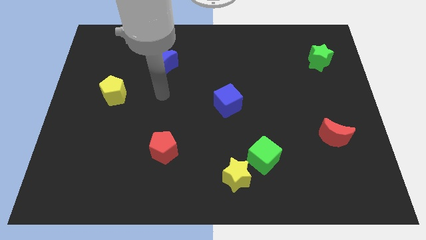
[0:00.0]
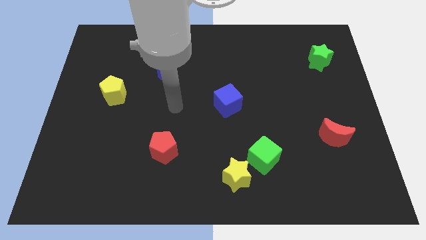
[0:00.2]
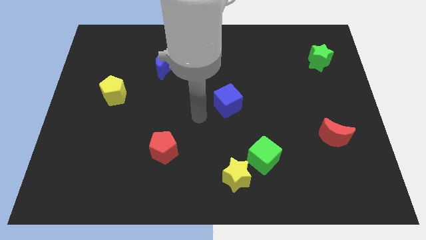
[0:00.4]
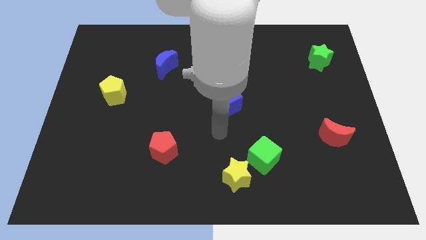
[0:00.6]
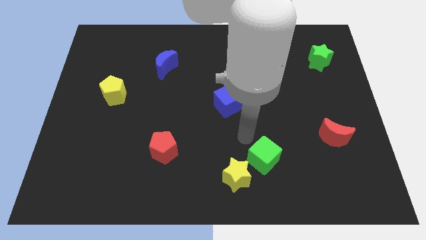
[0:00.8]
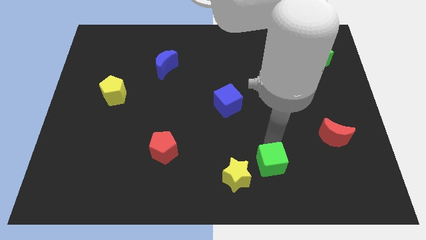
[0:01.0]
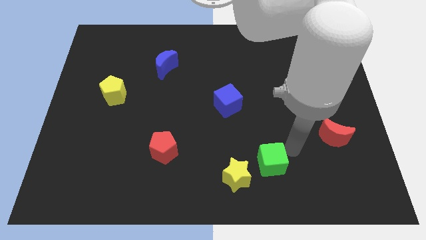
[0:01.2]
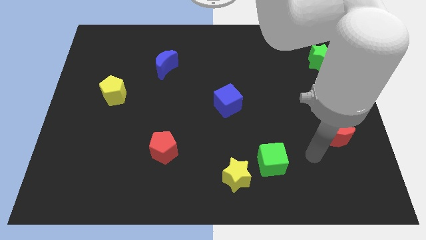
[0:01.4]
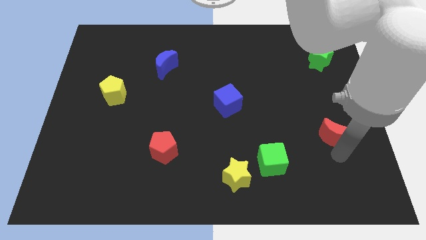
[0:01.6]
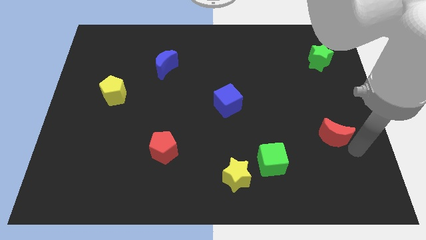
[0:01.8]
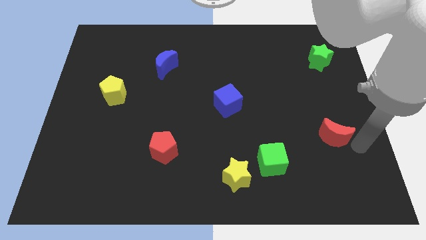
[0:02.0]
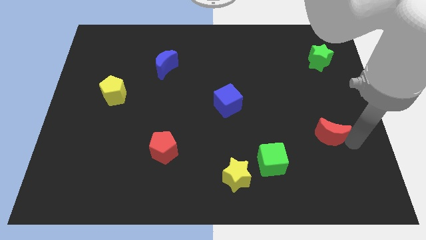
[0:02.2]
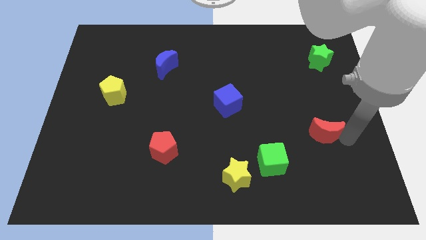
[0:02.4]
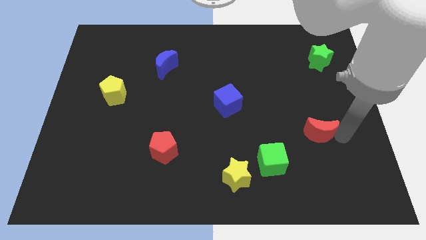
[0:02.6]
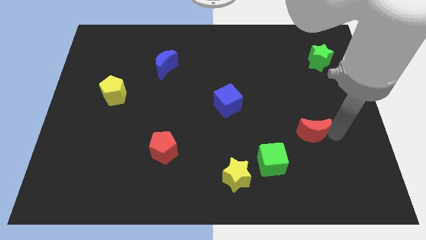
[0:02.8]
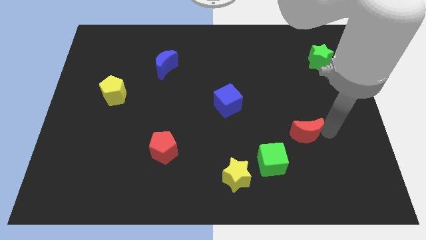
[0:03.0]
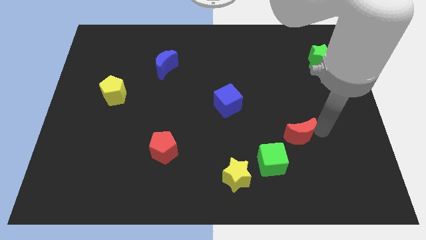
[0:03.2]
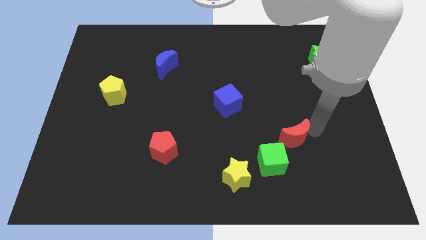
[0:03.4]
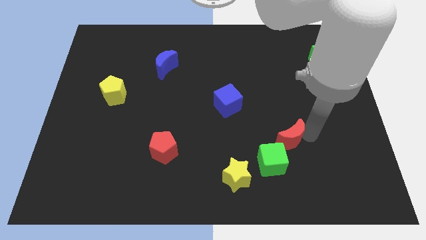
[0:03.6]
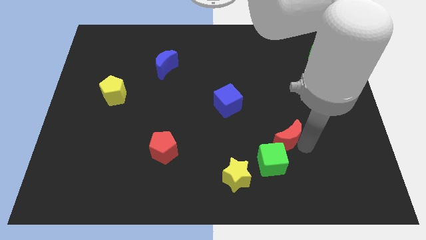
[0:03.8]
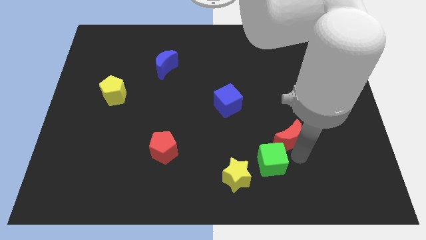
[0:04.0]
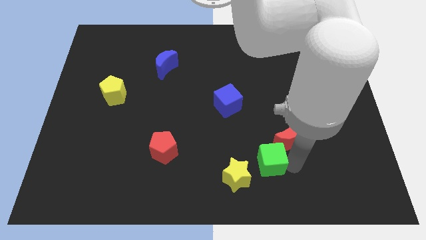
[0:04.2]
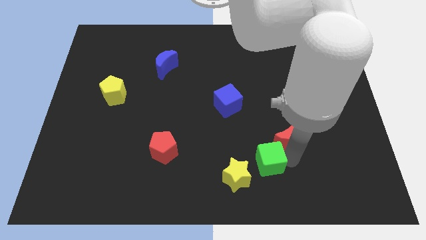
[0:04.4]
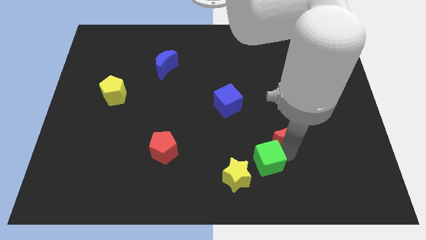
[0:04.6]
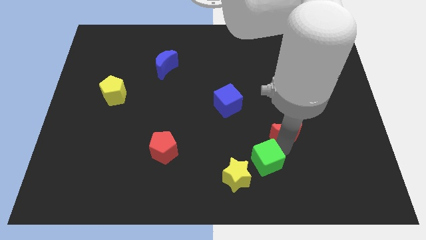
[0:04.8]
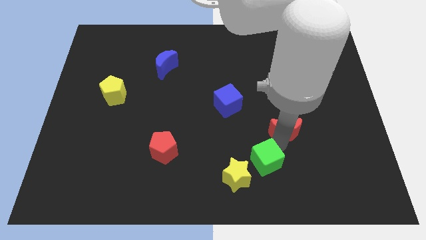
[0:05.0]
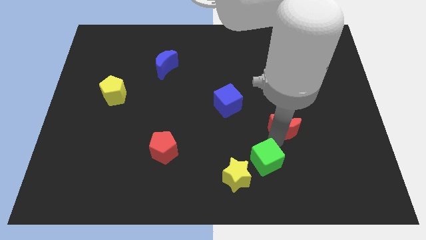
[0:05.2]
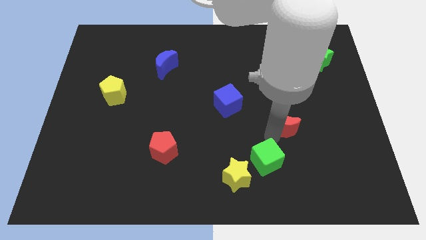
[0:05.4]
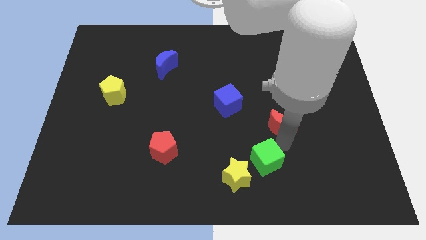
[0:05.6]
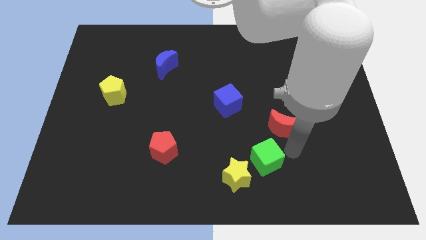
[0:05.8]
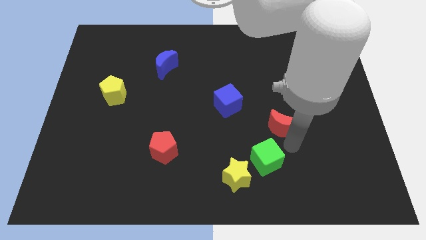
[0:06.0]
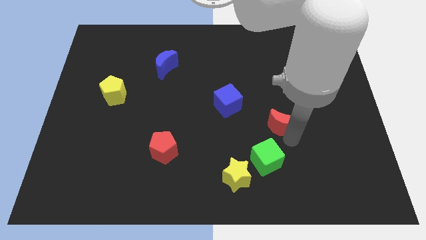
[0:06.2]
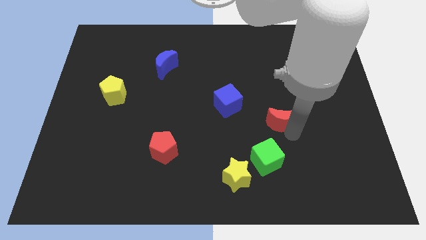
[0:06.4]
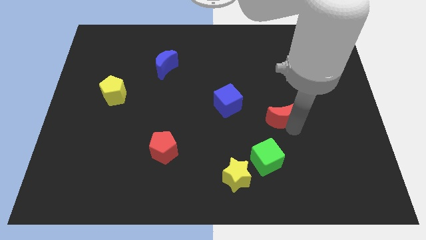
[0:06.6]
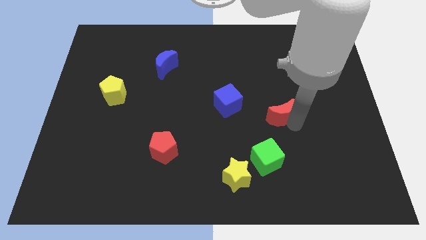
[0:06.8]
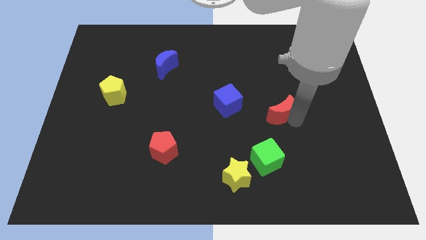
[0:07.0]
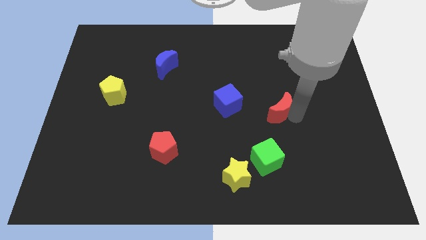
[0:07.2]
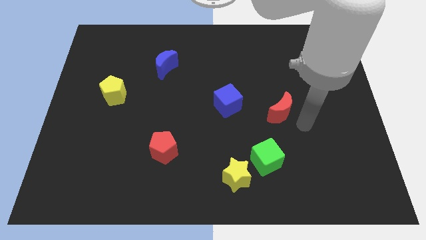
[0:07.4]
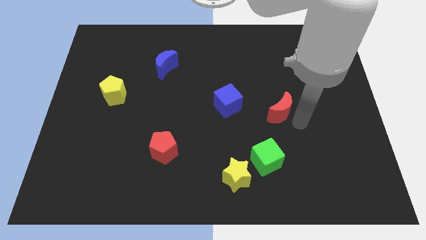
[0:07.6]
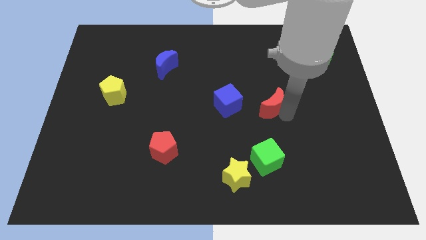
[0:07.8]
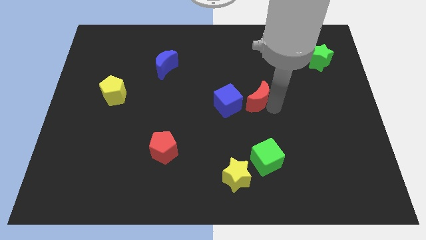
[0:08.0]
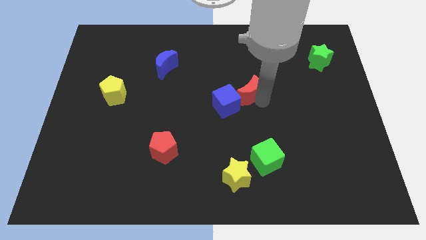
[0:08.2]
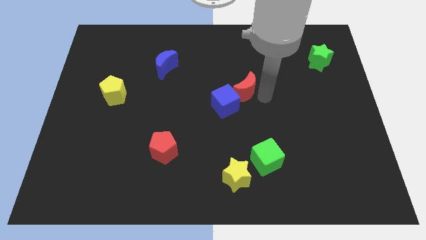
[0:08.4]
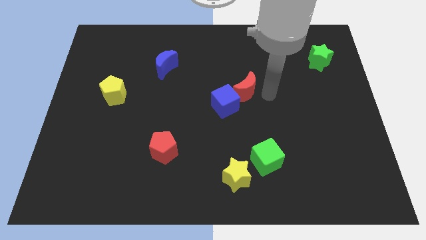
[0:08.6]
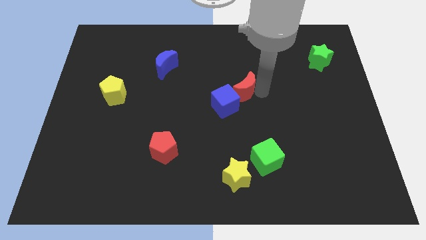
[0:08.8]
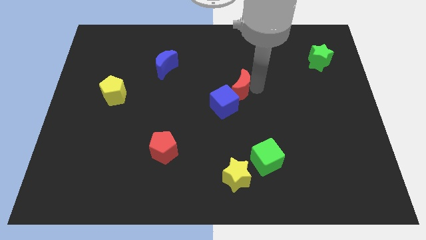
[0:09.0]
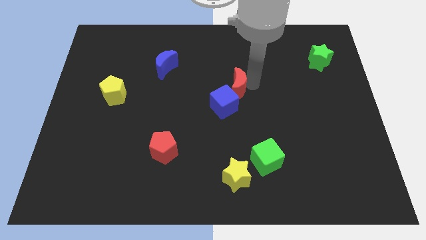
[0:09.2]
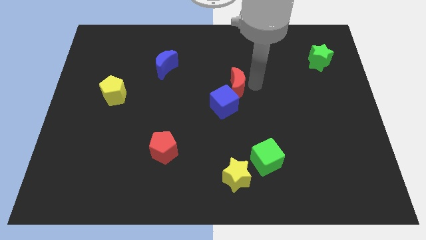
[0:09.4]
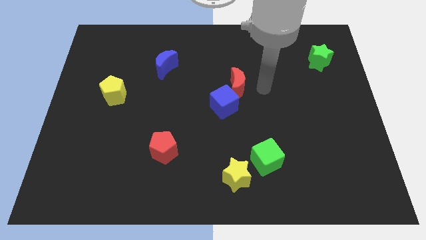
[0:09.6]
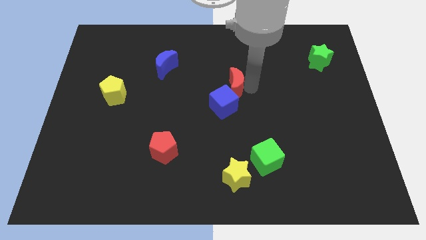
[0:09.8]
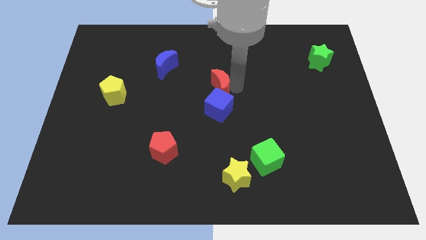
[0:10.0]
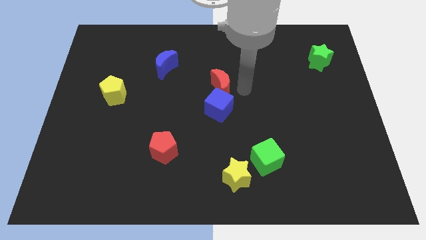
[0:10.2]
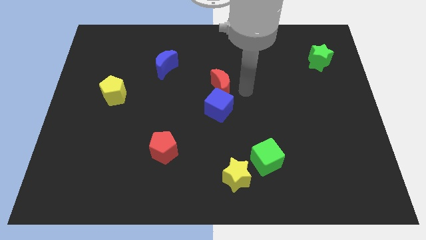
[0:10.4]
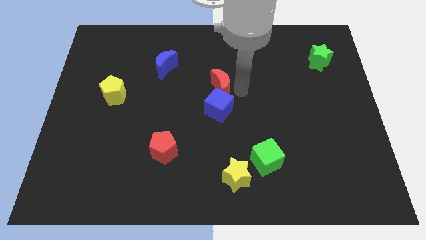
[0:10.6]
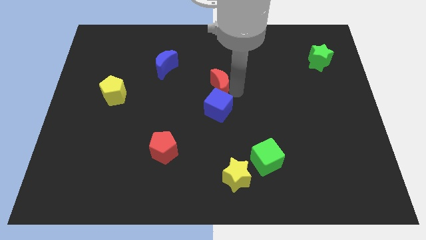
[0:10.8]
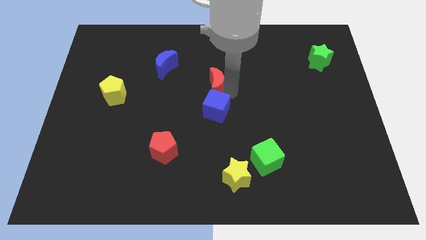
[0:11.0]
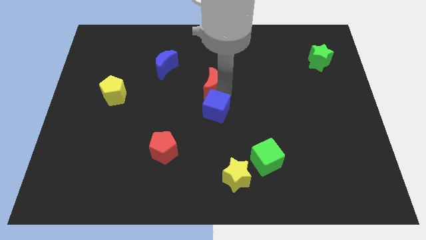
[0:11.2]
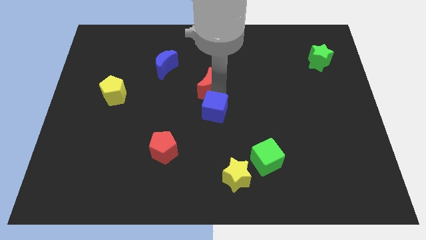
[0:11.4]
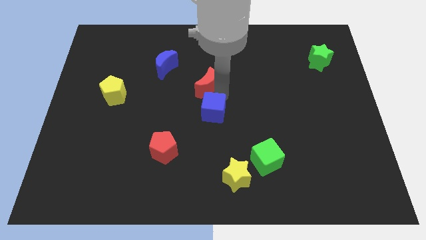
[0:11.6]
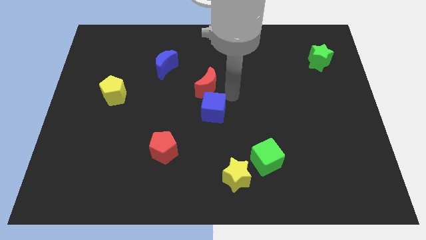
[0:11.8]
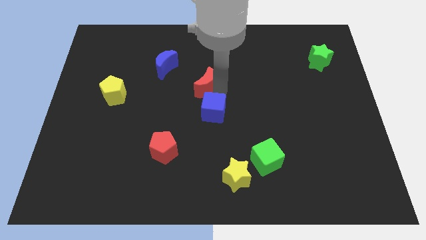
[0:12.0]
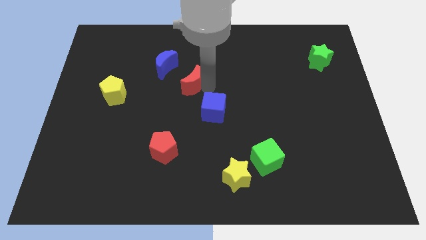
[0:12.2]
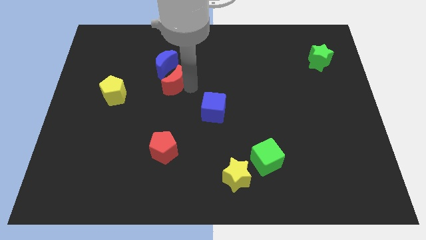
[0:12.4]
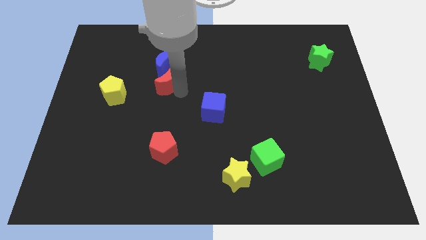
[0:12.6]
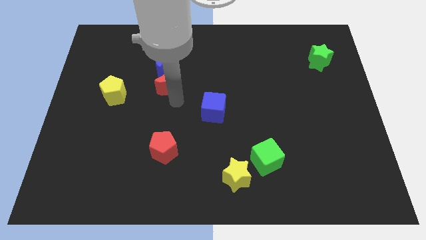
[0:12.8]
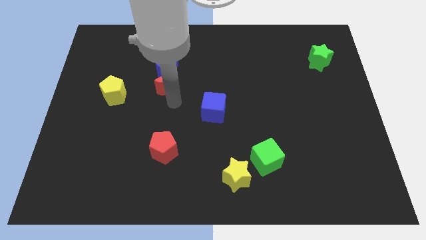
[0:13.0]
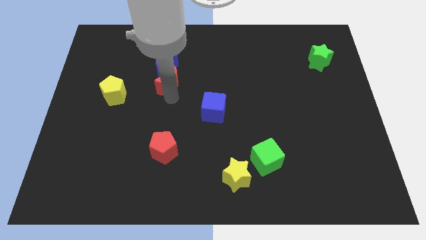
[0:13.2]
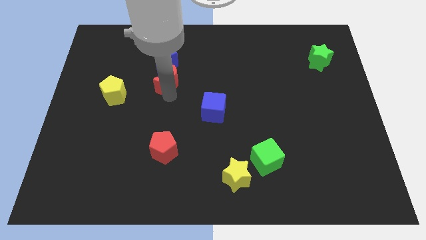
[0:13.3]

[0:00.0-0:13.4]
move the red moon close to the blue moon

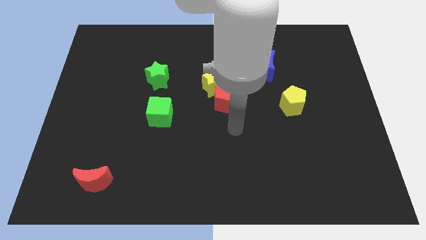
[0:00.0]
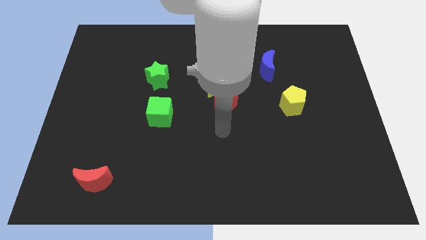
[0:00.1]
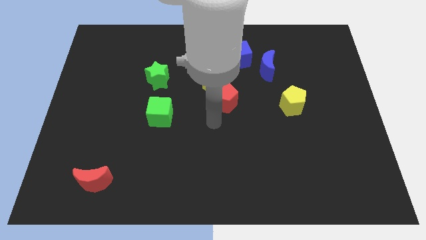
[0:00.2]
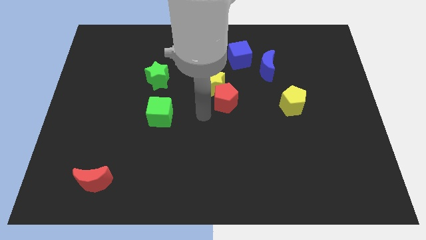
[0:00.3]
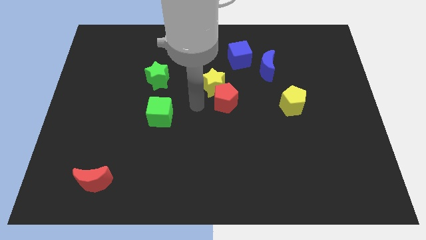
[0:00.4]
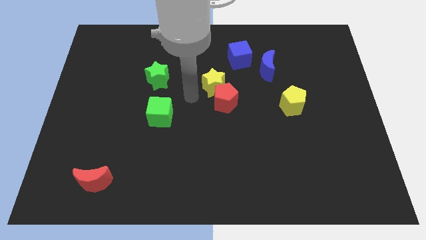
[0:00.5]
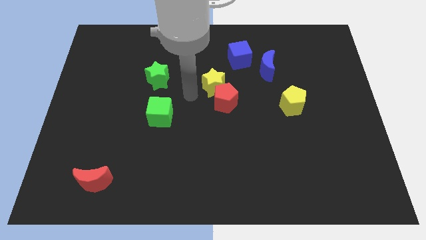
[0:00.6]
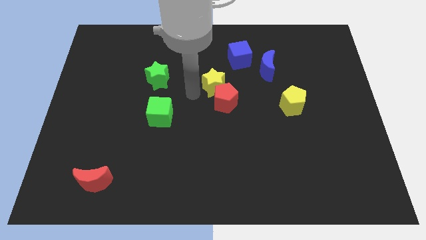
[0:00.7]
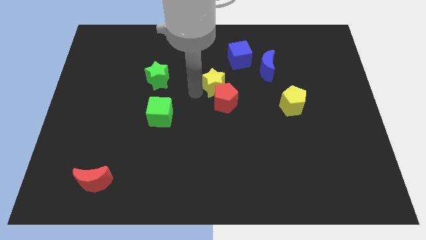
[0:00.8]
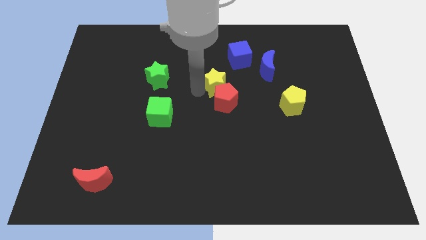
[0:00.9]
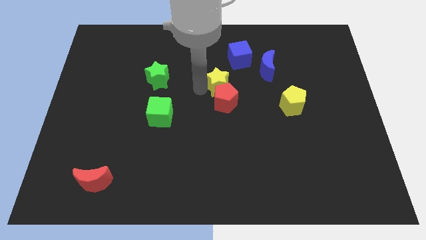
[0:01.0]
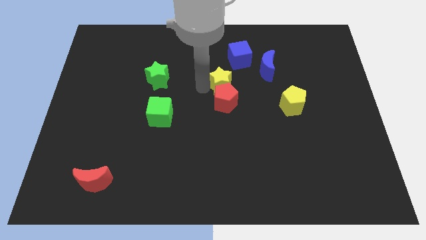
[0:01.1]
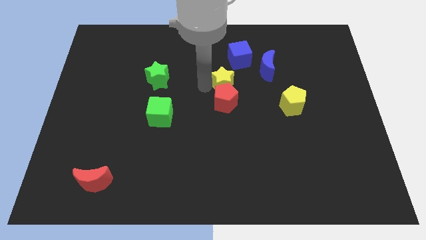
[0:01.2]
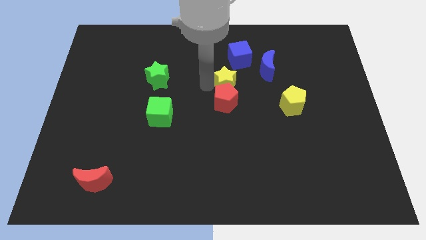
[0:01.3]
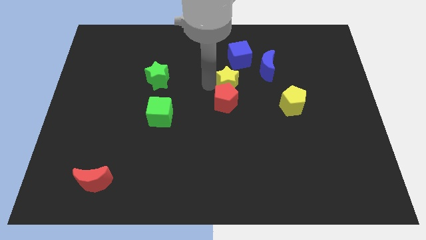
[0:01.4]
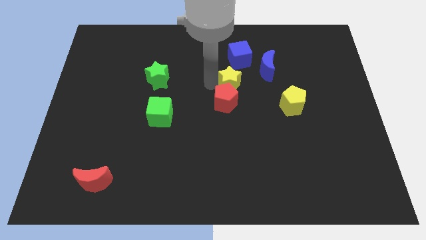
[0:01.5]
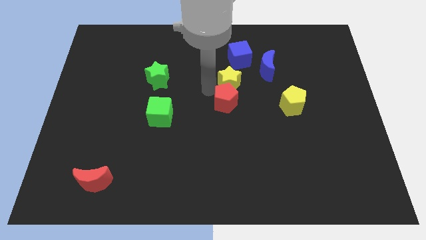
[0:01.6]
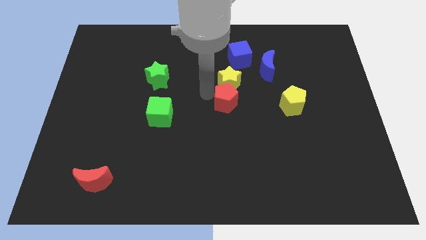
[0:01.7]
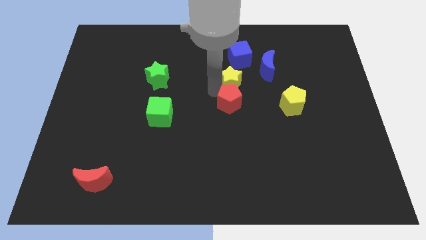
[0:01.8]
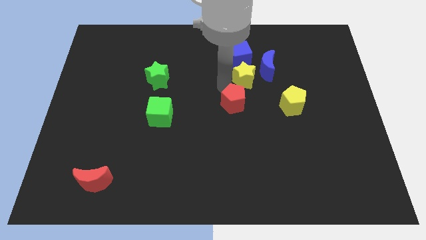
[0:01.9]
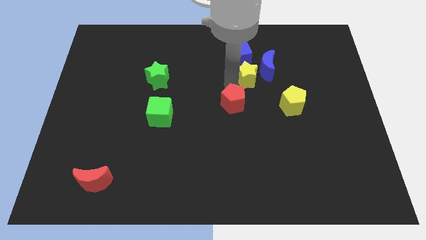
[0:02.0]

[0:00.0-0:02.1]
put the yellow star close to the blue moon
